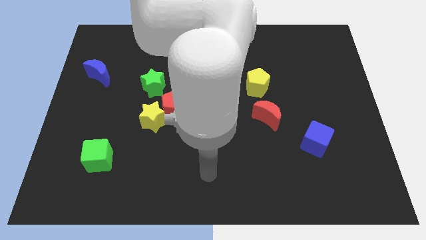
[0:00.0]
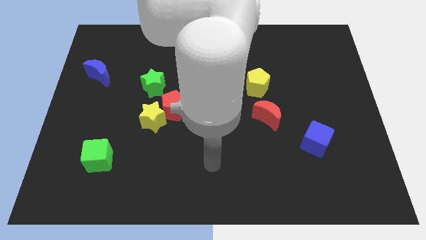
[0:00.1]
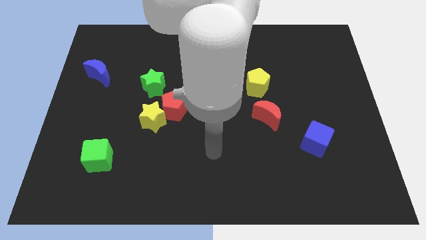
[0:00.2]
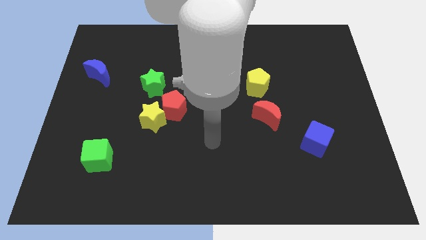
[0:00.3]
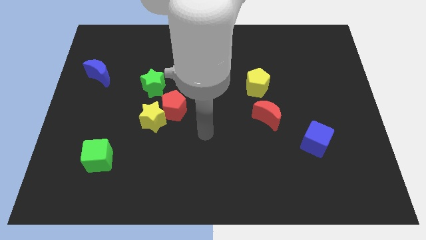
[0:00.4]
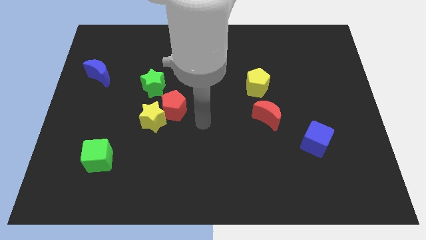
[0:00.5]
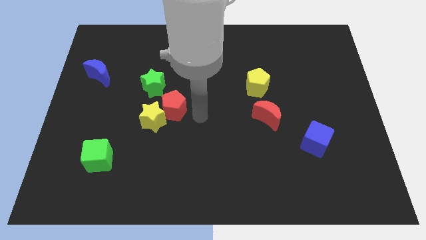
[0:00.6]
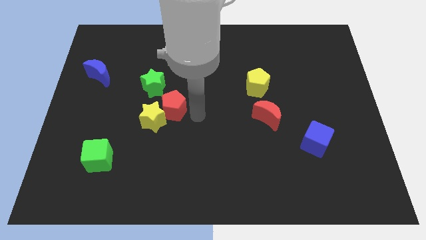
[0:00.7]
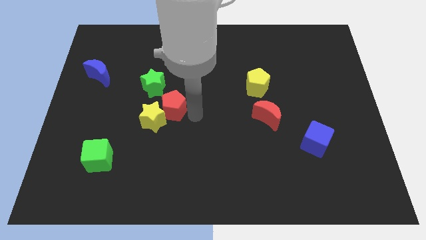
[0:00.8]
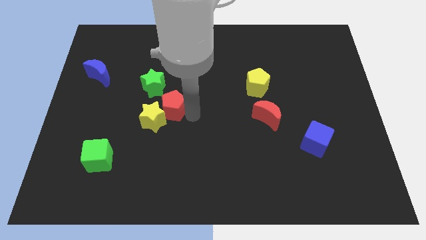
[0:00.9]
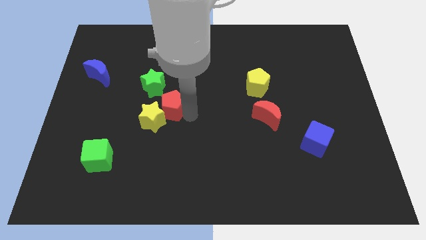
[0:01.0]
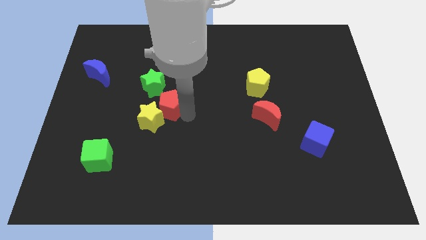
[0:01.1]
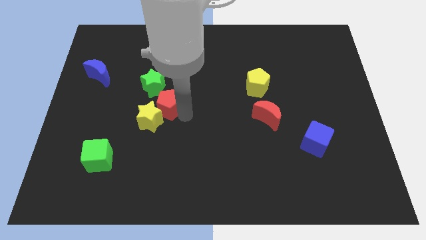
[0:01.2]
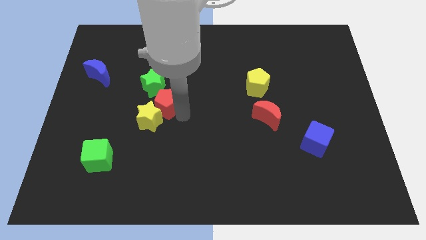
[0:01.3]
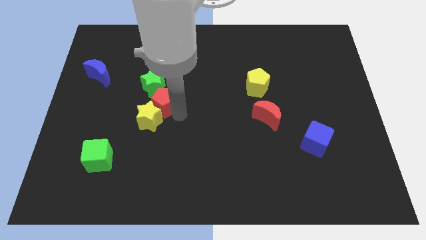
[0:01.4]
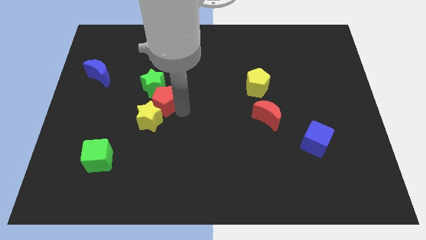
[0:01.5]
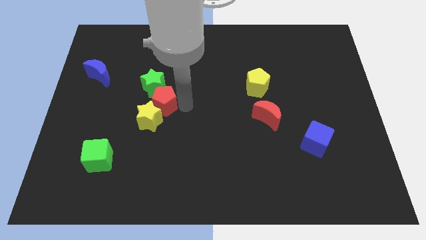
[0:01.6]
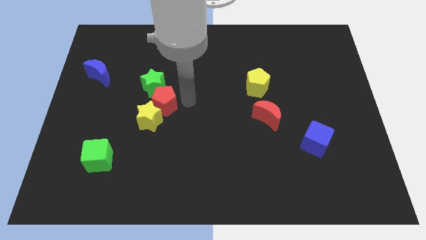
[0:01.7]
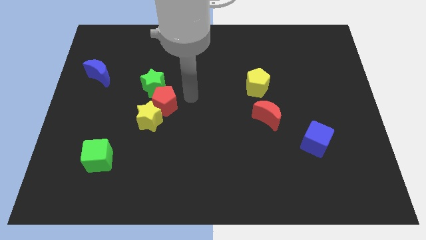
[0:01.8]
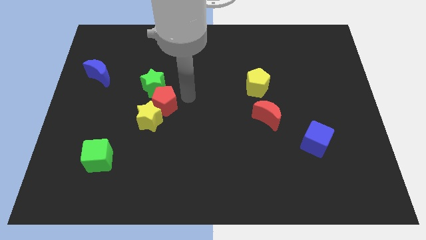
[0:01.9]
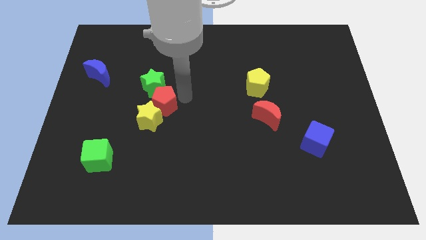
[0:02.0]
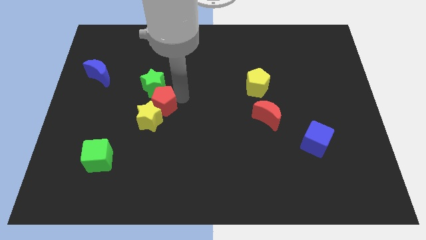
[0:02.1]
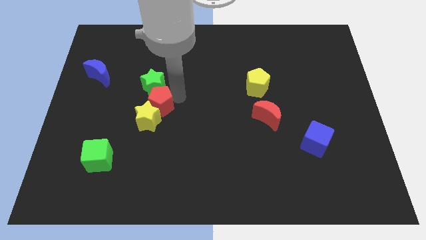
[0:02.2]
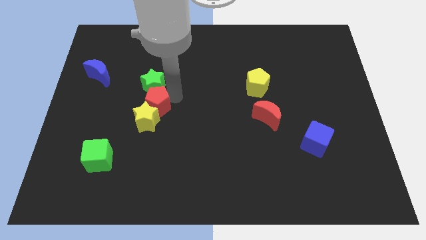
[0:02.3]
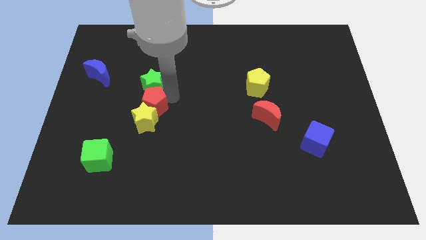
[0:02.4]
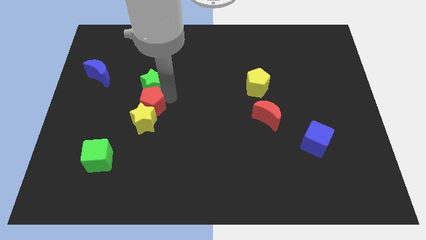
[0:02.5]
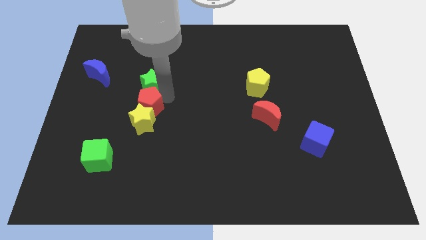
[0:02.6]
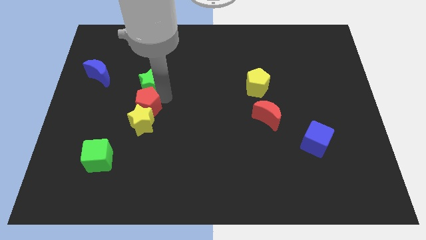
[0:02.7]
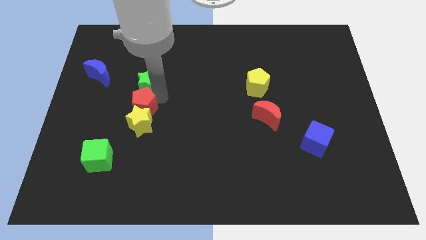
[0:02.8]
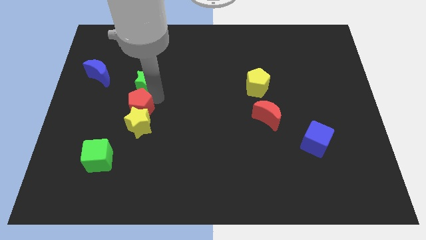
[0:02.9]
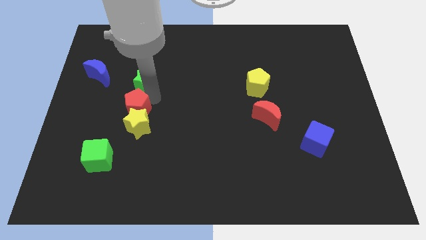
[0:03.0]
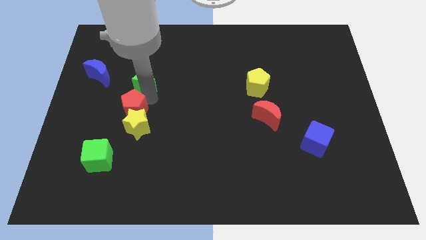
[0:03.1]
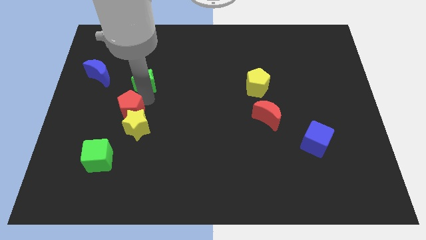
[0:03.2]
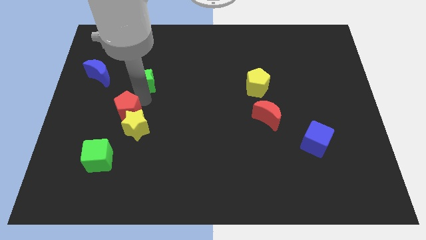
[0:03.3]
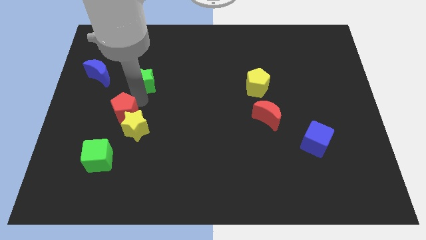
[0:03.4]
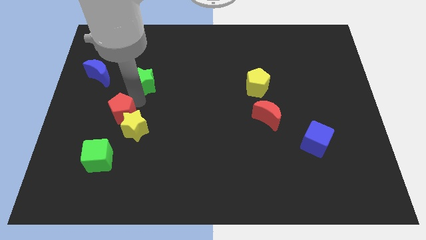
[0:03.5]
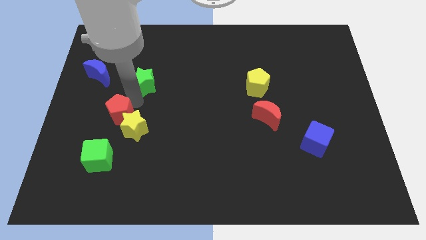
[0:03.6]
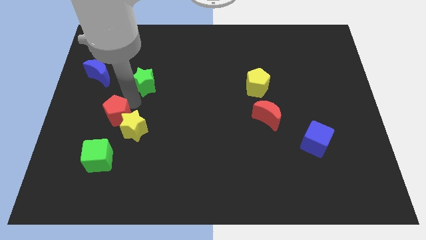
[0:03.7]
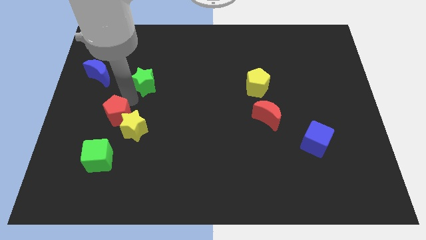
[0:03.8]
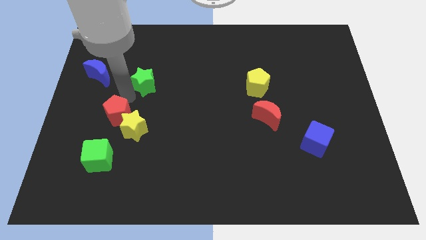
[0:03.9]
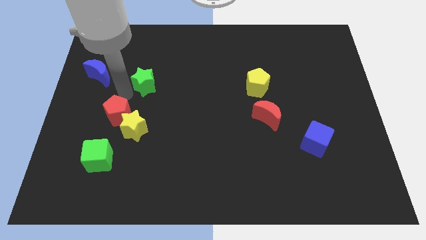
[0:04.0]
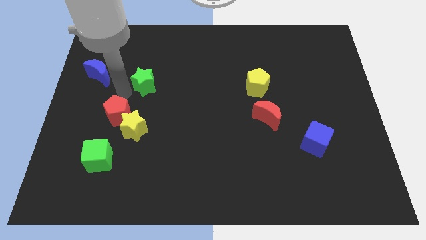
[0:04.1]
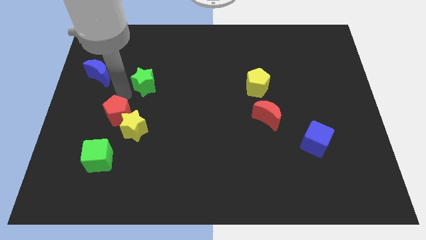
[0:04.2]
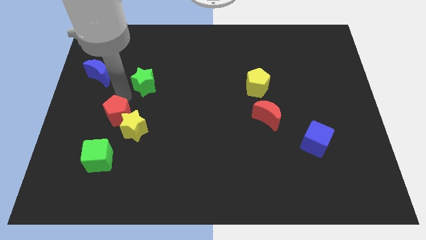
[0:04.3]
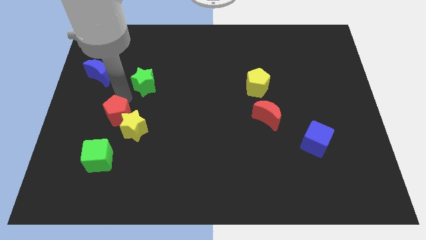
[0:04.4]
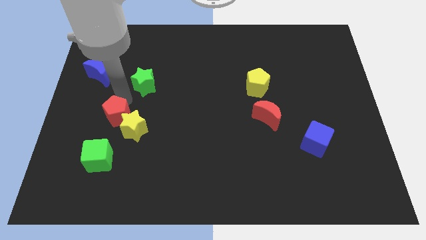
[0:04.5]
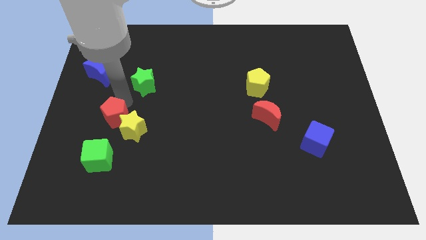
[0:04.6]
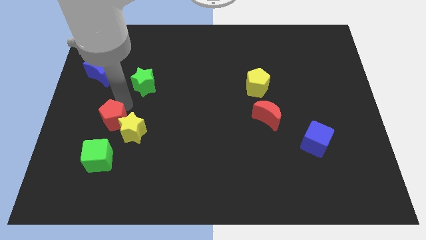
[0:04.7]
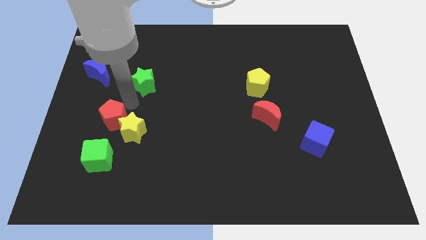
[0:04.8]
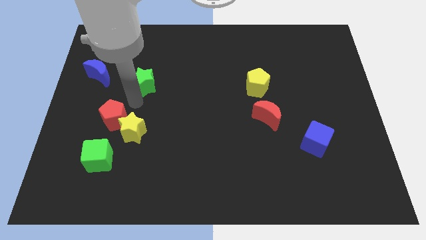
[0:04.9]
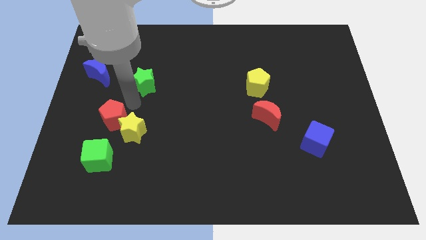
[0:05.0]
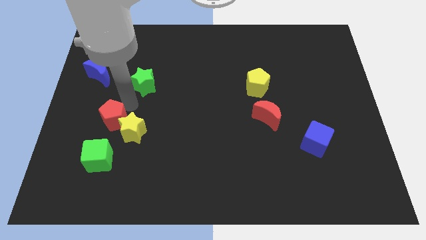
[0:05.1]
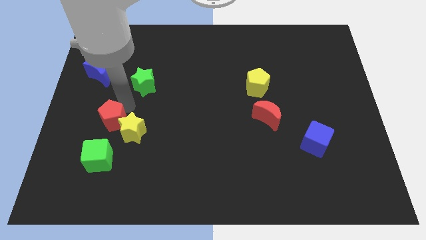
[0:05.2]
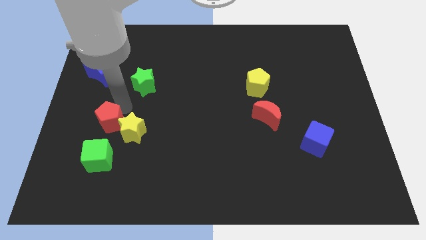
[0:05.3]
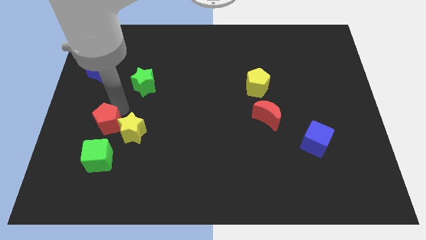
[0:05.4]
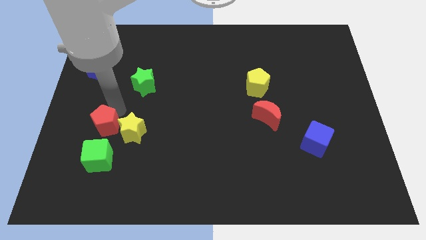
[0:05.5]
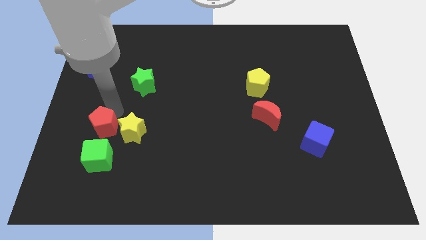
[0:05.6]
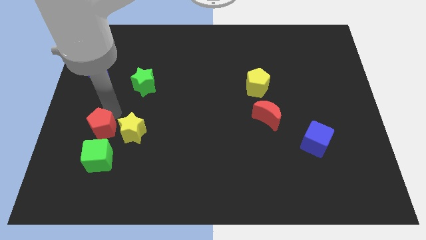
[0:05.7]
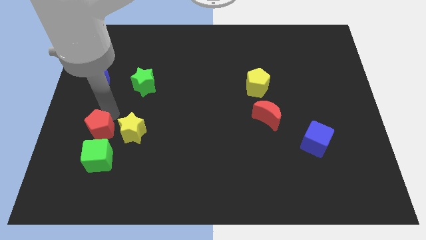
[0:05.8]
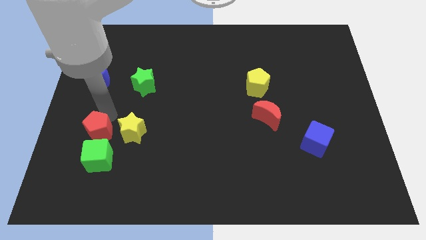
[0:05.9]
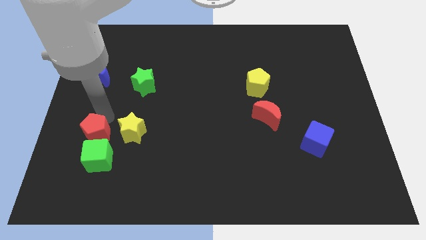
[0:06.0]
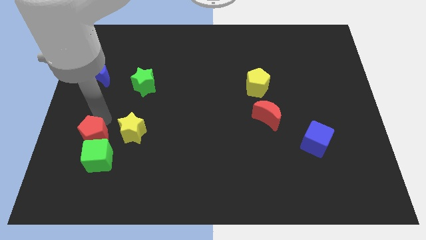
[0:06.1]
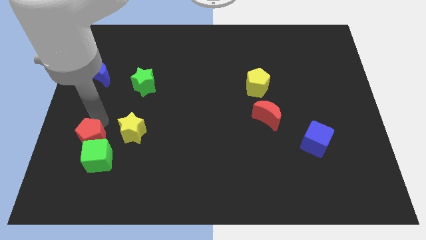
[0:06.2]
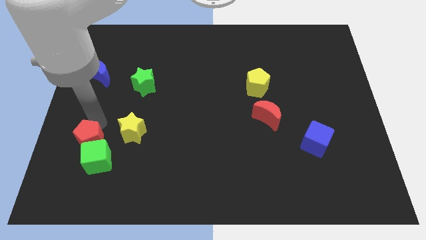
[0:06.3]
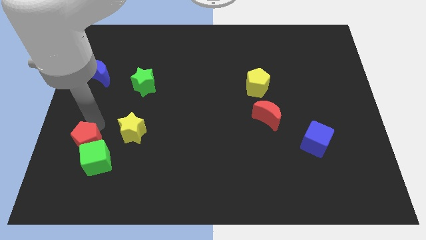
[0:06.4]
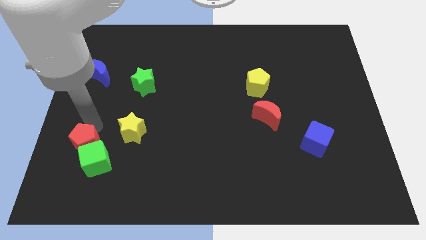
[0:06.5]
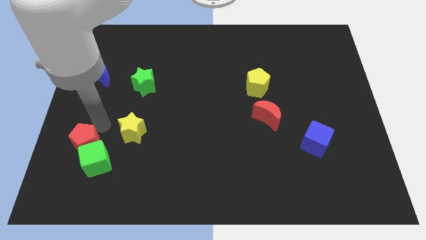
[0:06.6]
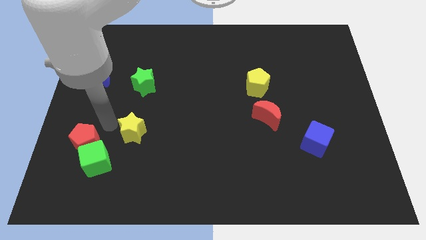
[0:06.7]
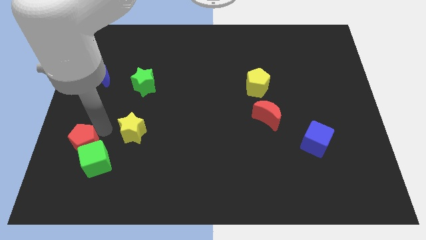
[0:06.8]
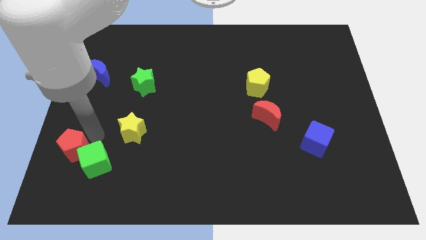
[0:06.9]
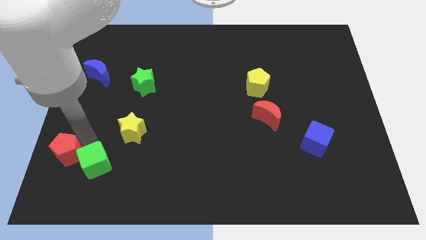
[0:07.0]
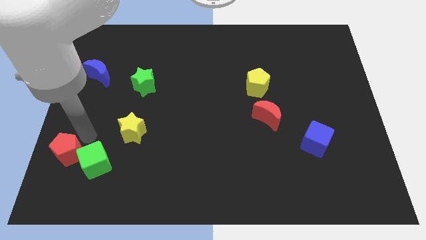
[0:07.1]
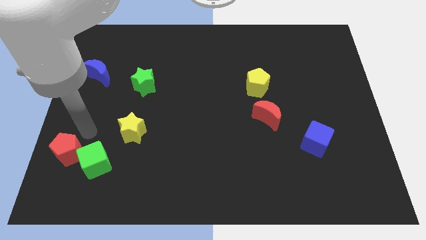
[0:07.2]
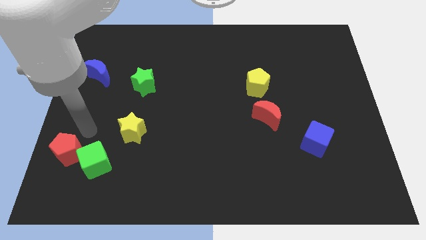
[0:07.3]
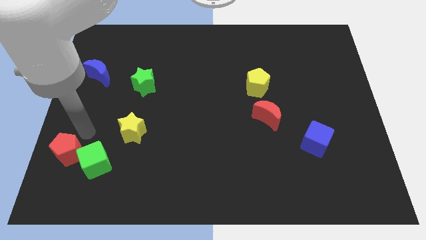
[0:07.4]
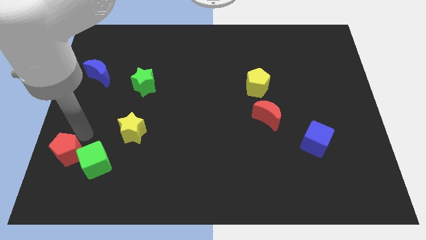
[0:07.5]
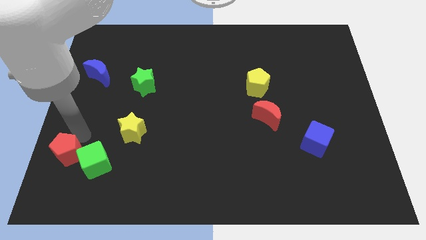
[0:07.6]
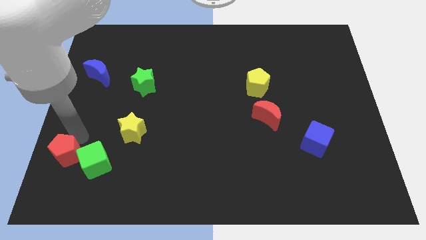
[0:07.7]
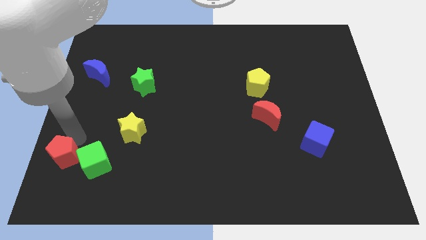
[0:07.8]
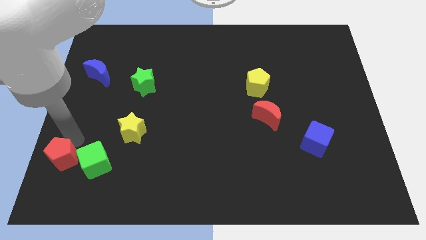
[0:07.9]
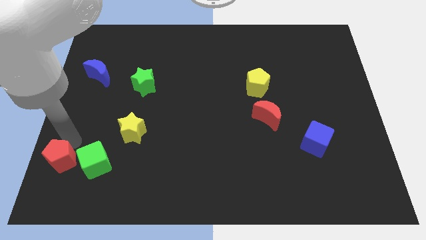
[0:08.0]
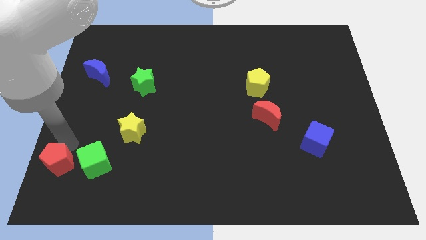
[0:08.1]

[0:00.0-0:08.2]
slide the red pentagon to the bottom left corner
